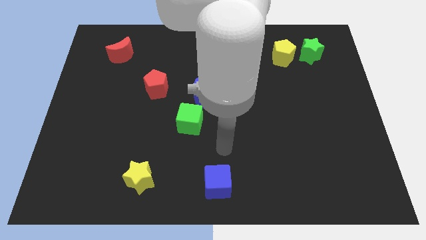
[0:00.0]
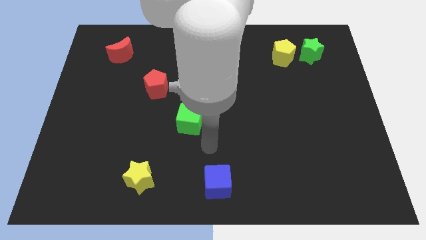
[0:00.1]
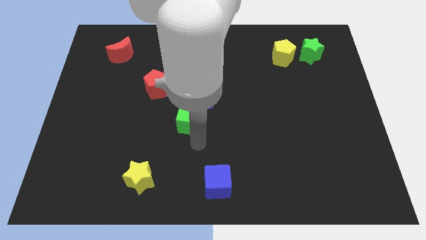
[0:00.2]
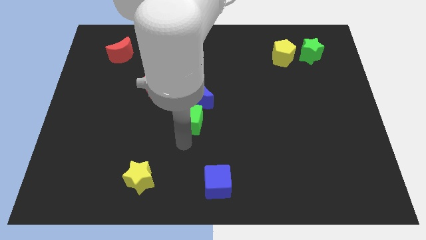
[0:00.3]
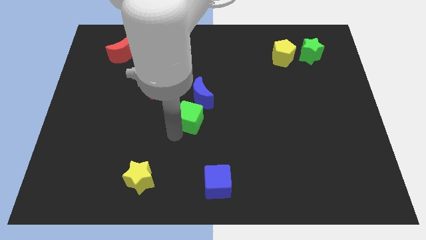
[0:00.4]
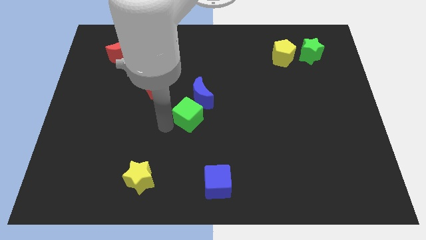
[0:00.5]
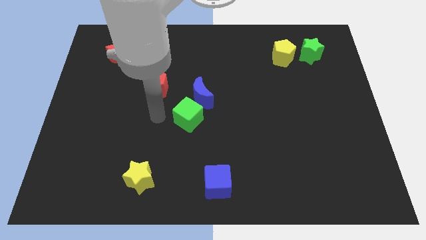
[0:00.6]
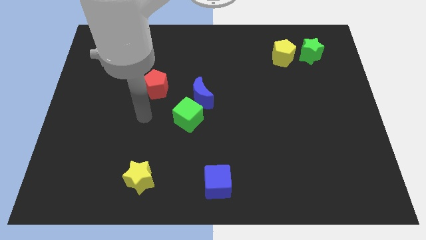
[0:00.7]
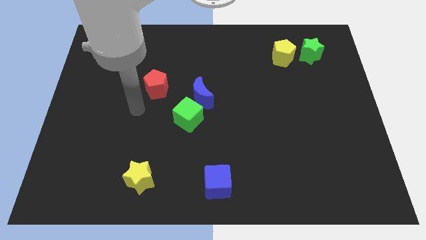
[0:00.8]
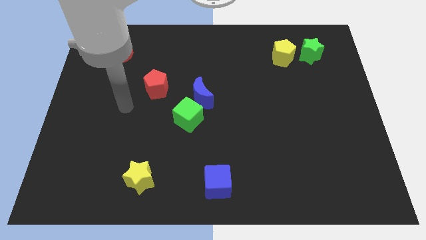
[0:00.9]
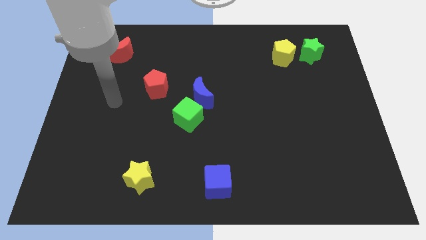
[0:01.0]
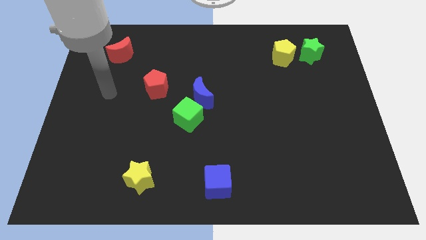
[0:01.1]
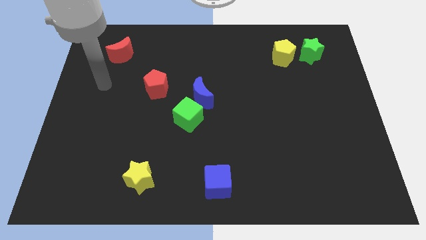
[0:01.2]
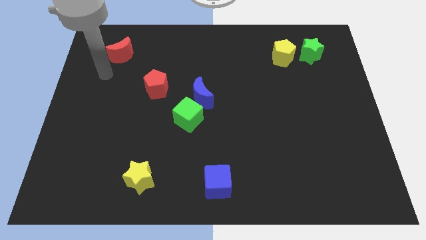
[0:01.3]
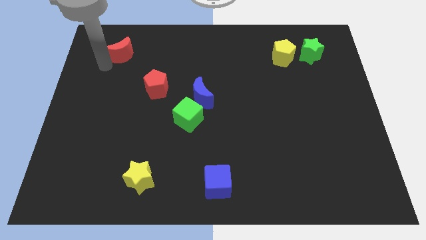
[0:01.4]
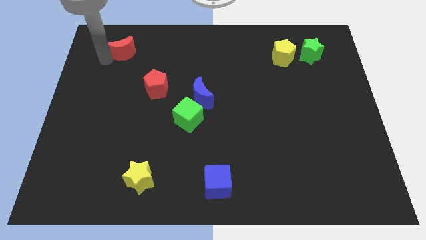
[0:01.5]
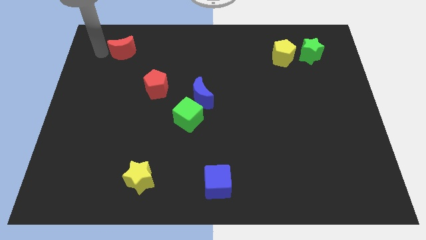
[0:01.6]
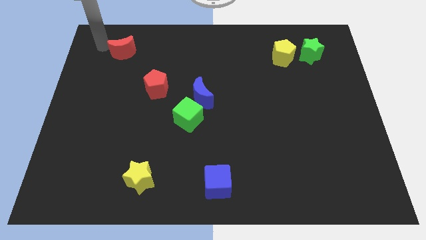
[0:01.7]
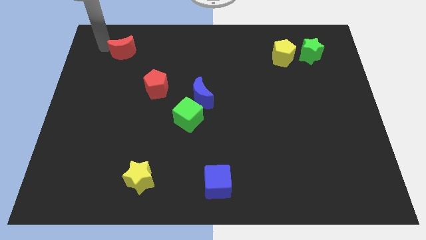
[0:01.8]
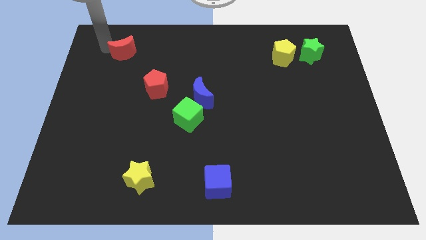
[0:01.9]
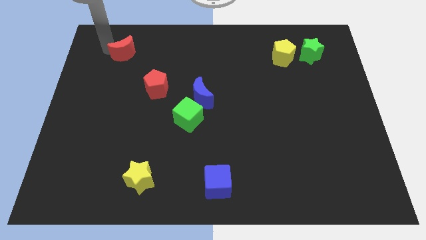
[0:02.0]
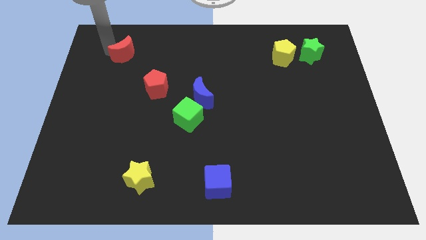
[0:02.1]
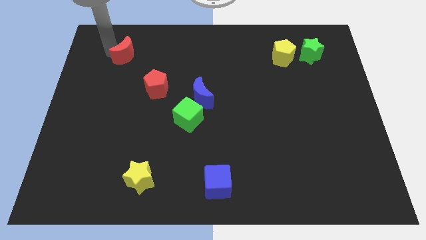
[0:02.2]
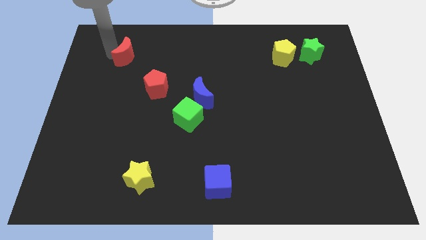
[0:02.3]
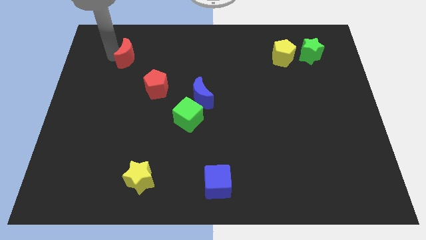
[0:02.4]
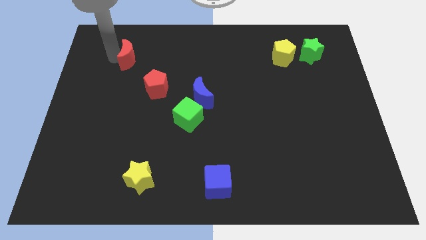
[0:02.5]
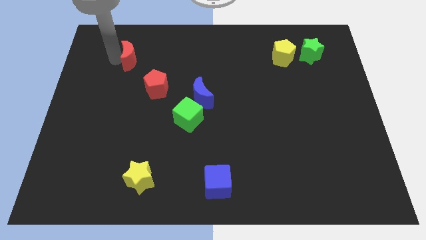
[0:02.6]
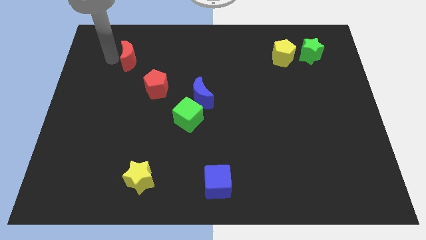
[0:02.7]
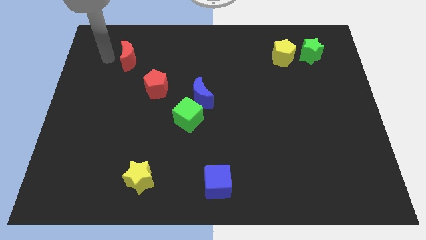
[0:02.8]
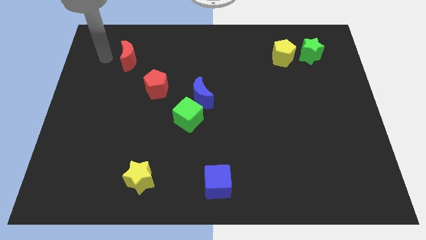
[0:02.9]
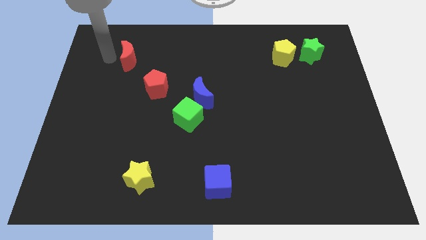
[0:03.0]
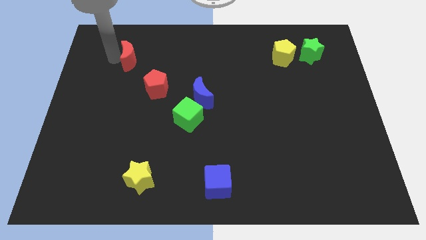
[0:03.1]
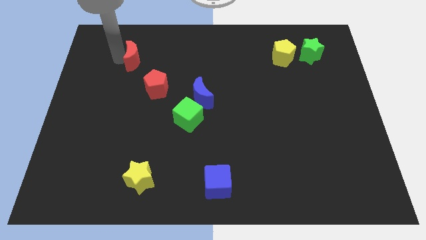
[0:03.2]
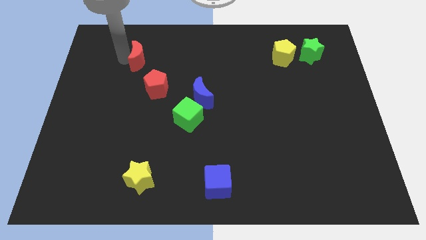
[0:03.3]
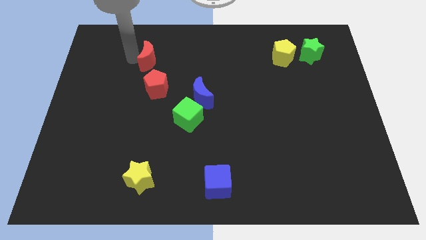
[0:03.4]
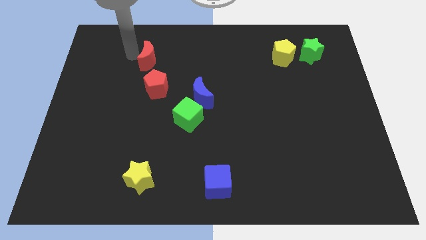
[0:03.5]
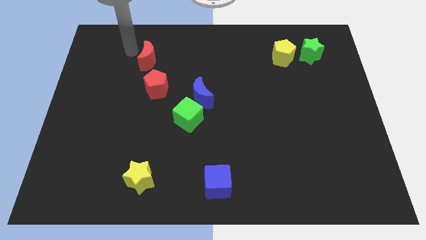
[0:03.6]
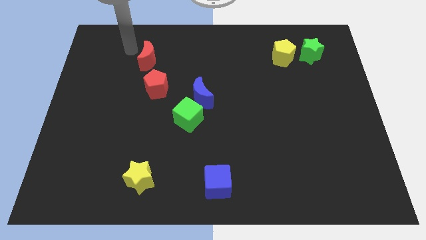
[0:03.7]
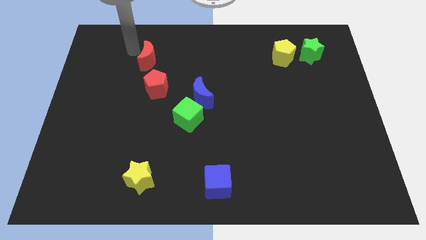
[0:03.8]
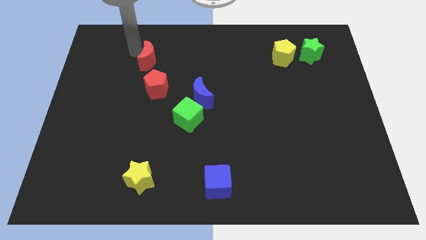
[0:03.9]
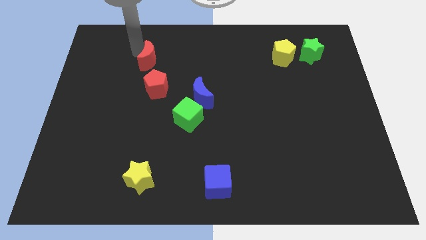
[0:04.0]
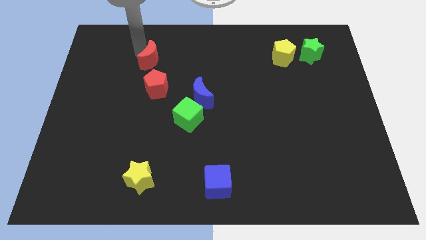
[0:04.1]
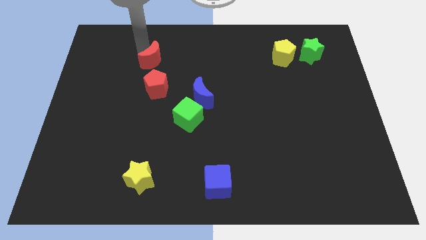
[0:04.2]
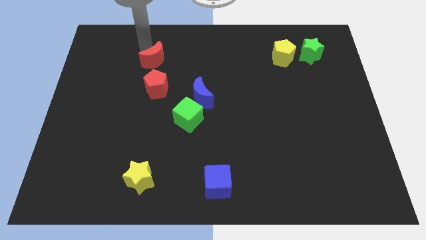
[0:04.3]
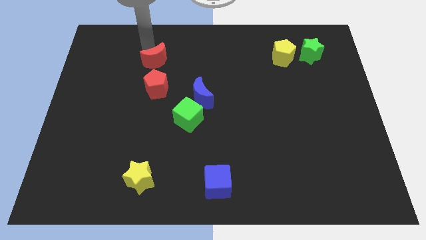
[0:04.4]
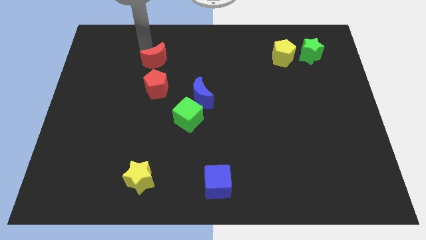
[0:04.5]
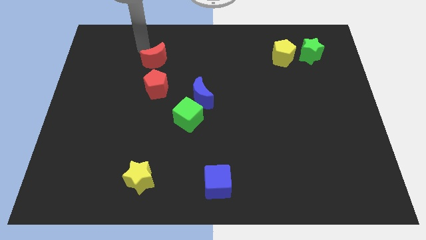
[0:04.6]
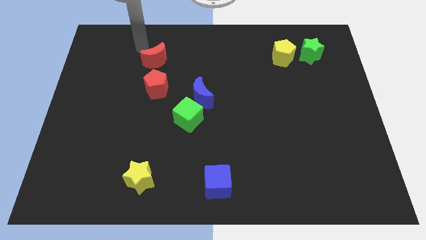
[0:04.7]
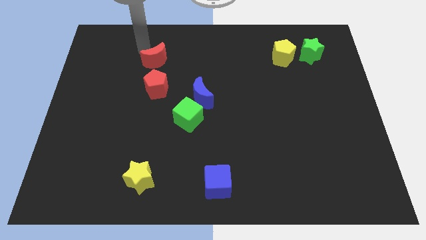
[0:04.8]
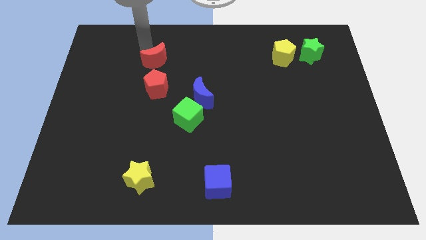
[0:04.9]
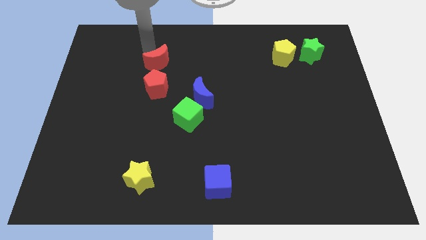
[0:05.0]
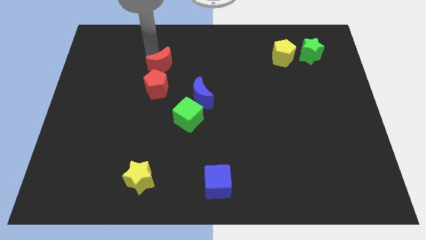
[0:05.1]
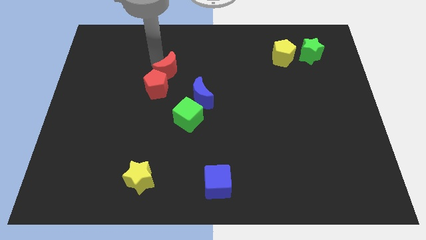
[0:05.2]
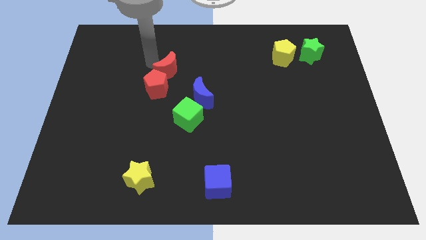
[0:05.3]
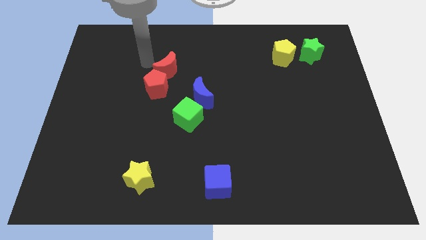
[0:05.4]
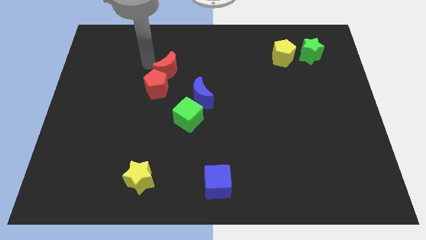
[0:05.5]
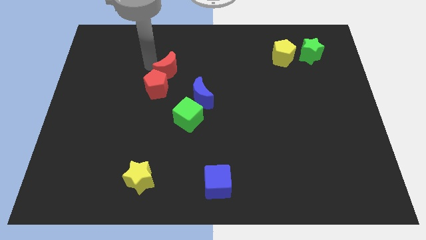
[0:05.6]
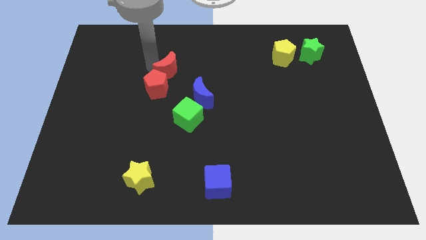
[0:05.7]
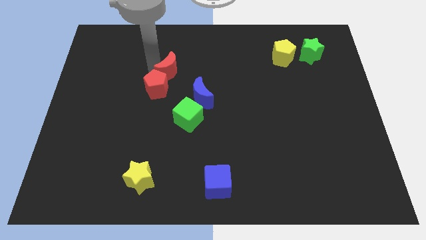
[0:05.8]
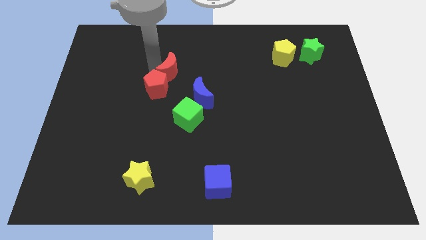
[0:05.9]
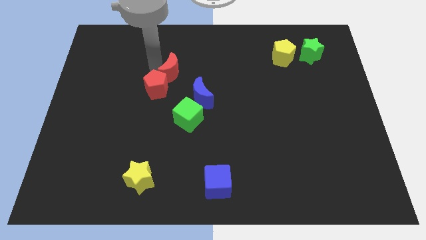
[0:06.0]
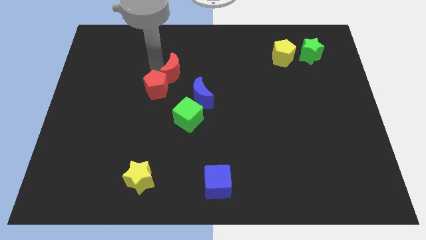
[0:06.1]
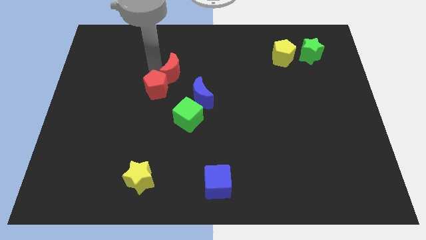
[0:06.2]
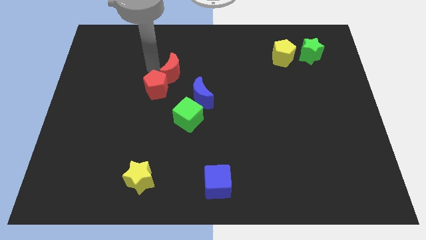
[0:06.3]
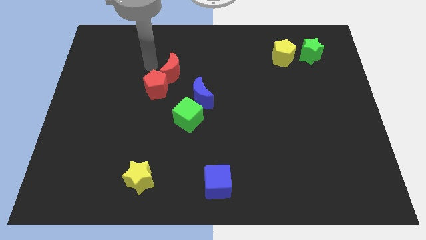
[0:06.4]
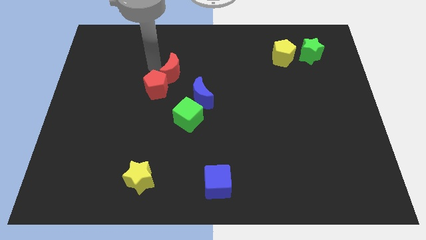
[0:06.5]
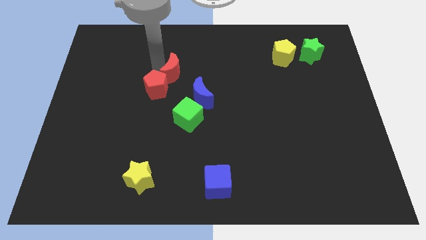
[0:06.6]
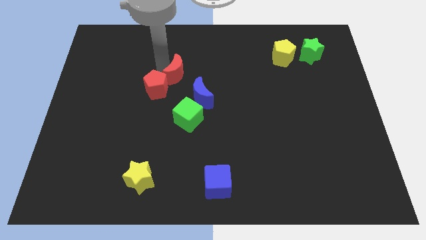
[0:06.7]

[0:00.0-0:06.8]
put the red moon to the right side of the red pentagon
